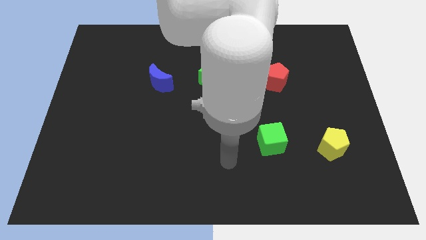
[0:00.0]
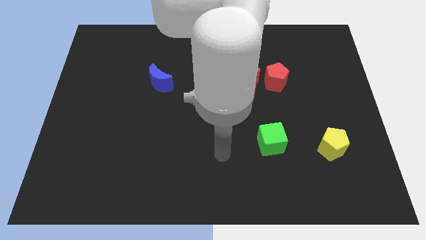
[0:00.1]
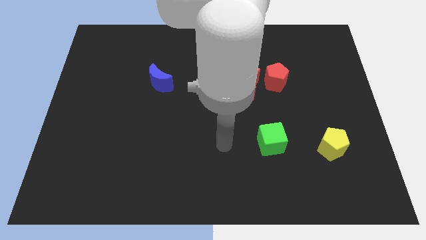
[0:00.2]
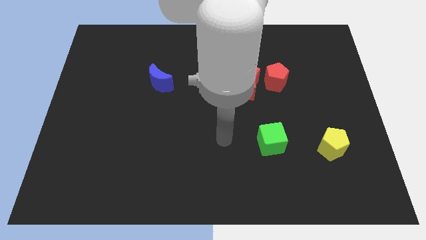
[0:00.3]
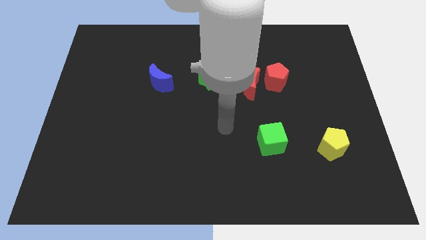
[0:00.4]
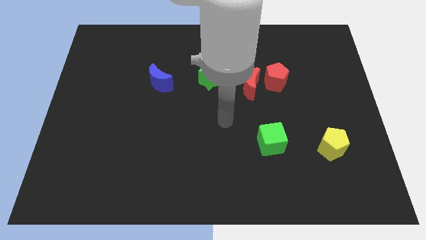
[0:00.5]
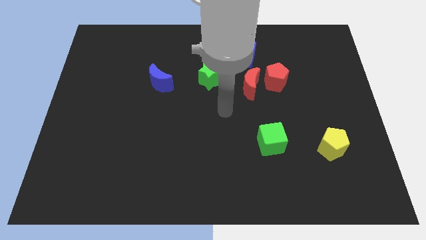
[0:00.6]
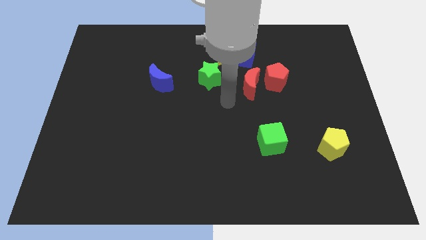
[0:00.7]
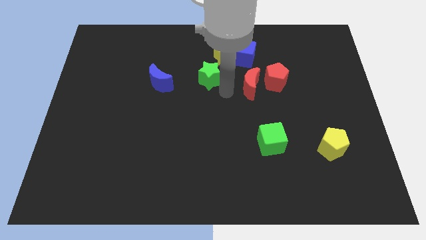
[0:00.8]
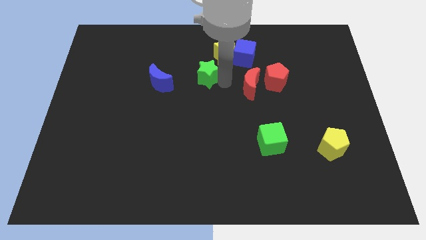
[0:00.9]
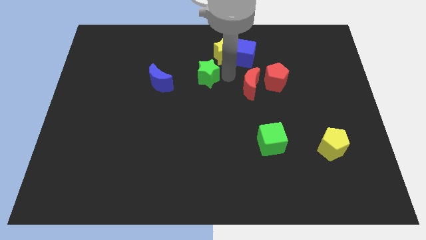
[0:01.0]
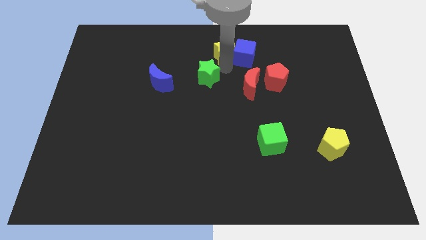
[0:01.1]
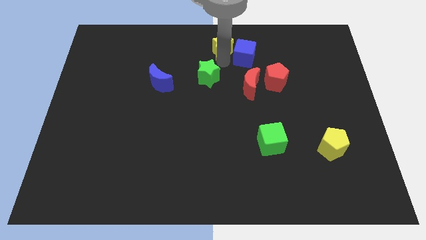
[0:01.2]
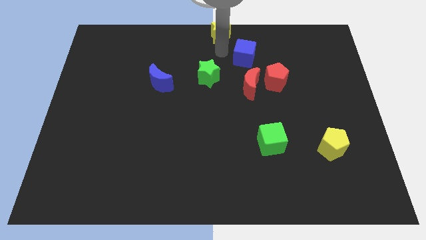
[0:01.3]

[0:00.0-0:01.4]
pull the blue cube apart from the yellow star

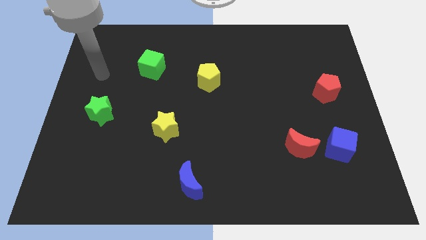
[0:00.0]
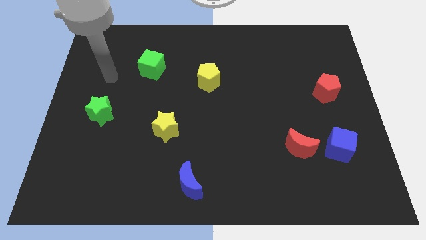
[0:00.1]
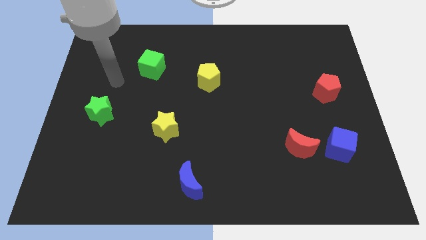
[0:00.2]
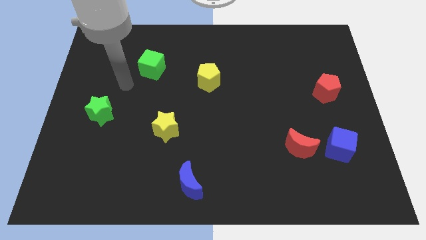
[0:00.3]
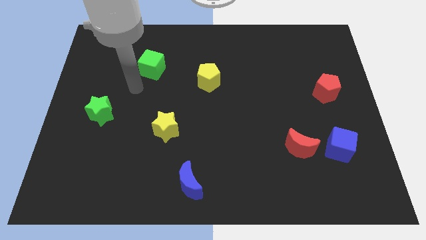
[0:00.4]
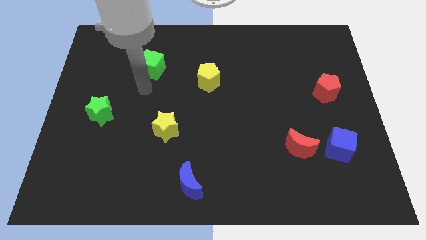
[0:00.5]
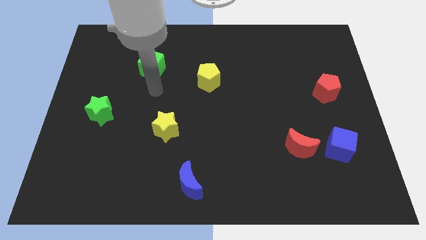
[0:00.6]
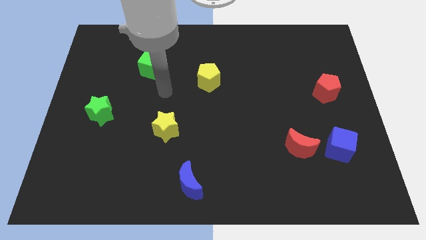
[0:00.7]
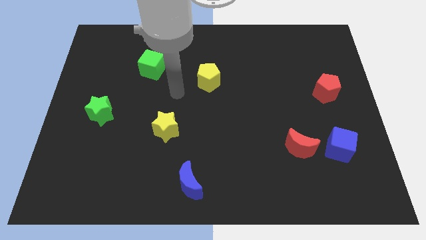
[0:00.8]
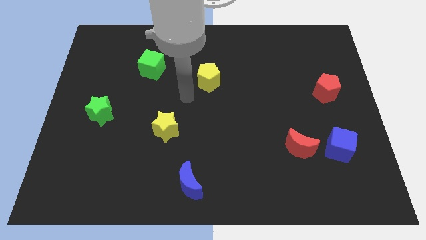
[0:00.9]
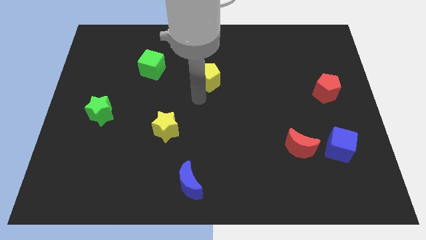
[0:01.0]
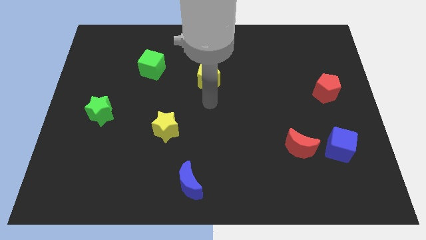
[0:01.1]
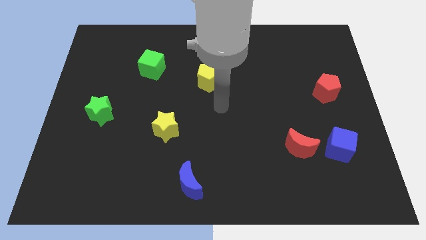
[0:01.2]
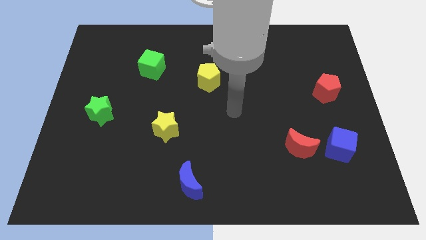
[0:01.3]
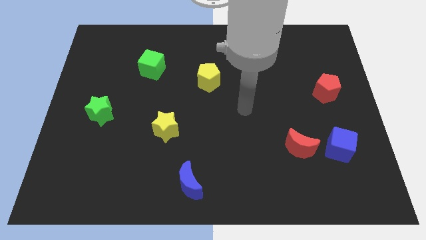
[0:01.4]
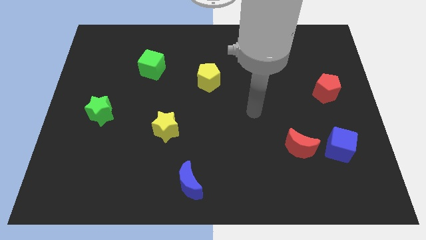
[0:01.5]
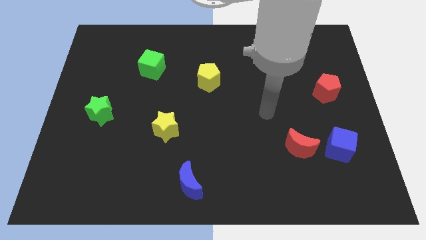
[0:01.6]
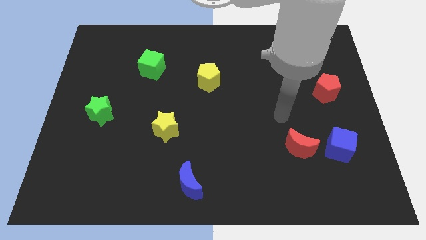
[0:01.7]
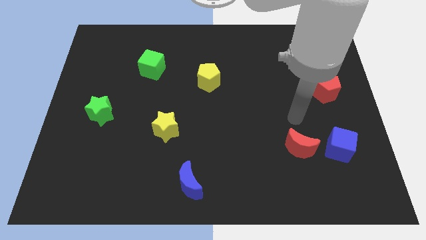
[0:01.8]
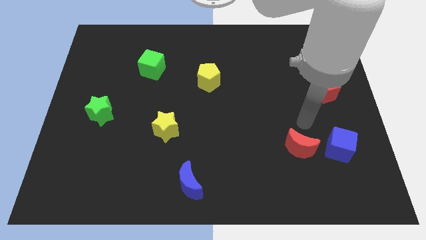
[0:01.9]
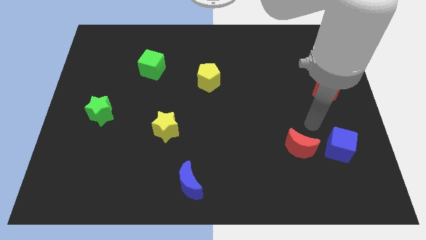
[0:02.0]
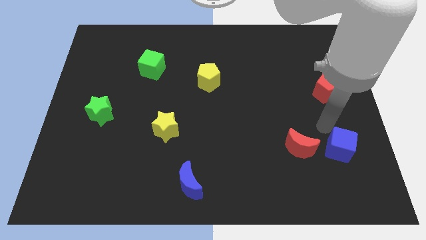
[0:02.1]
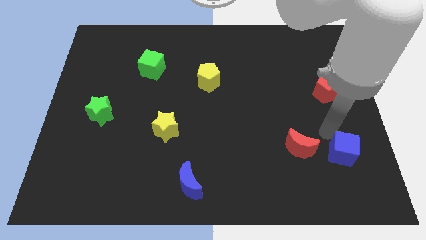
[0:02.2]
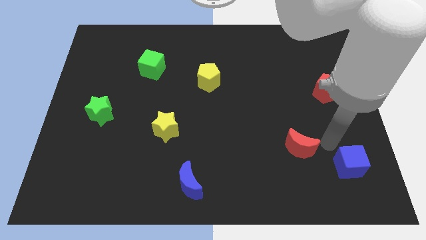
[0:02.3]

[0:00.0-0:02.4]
move the red moon away from the blue cube

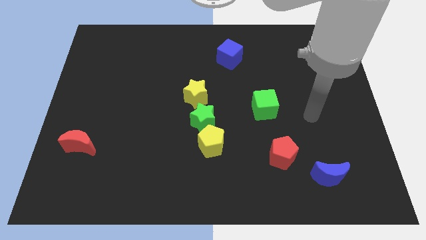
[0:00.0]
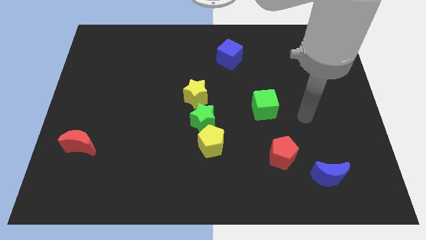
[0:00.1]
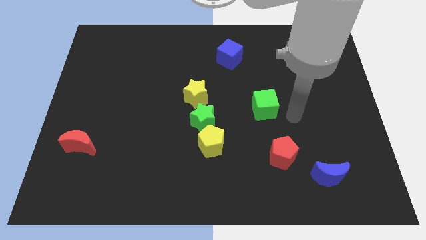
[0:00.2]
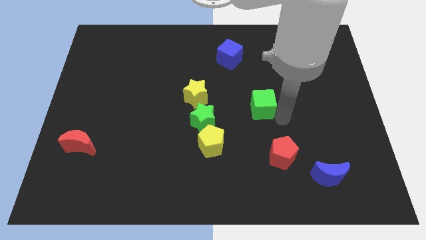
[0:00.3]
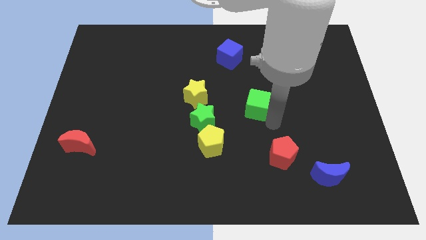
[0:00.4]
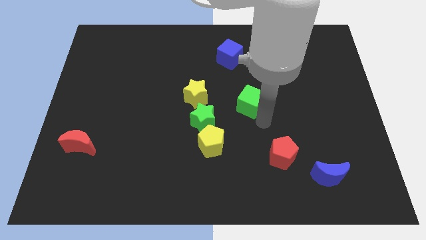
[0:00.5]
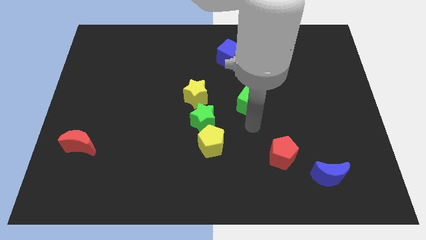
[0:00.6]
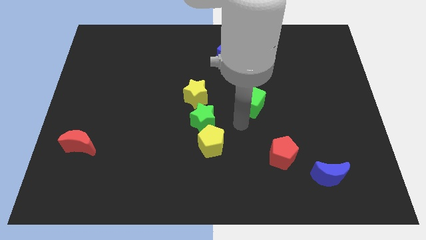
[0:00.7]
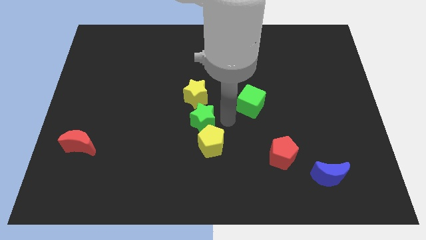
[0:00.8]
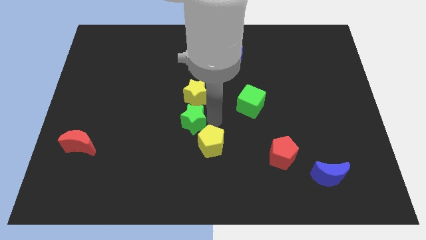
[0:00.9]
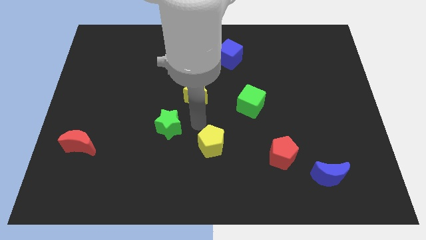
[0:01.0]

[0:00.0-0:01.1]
pull the yellow pentagon apart from the green star

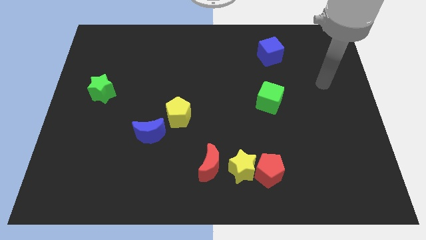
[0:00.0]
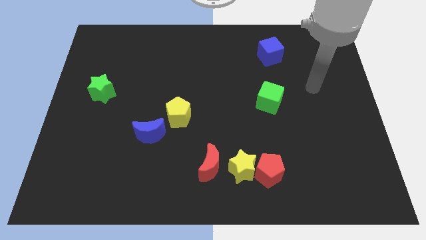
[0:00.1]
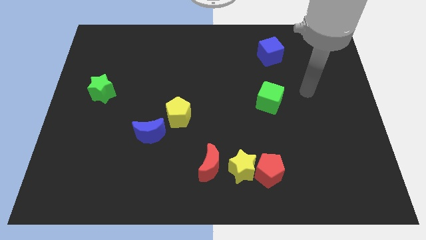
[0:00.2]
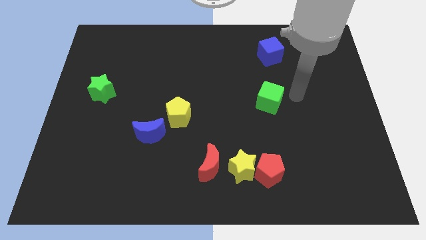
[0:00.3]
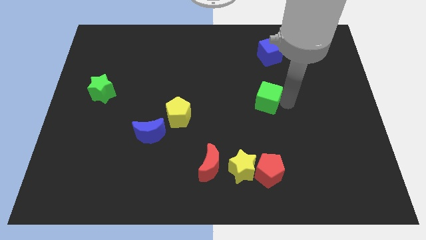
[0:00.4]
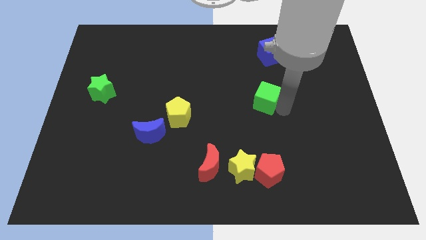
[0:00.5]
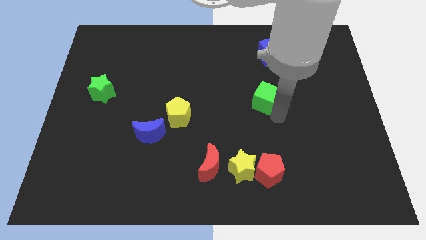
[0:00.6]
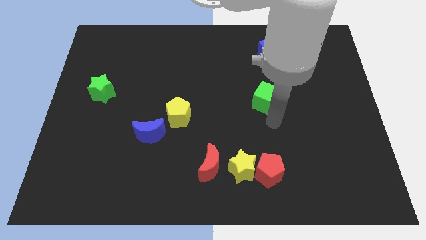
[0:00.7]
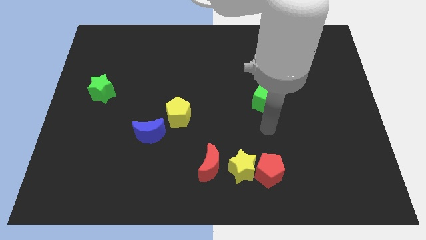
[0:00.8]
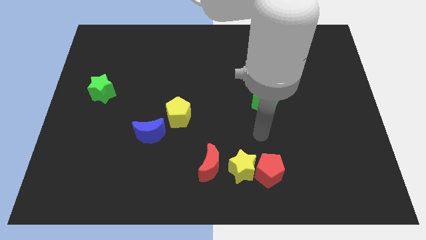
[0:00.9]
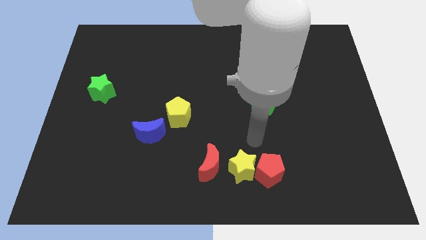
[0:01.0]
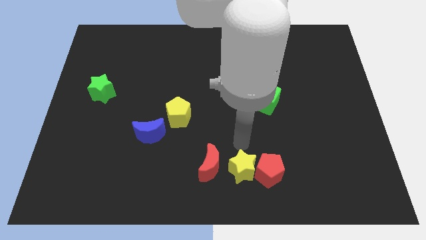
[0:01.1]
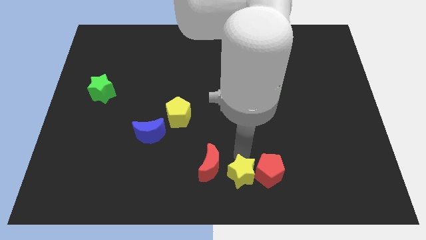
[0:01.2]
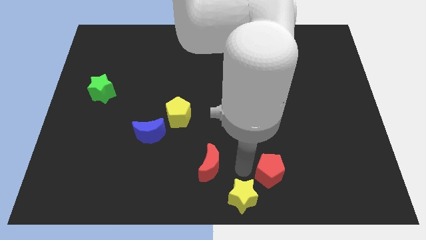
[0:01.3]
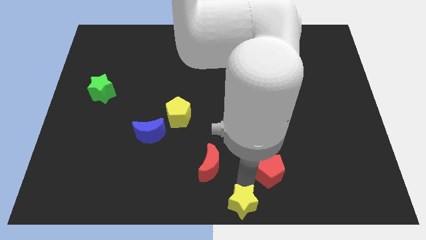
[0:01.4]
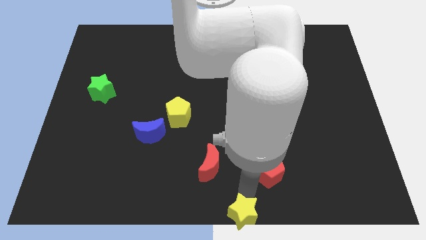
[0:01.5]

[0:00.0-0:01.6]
separate the red pentagon from the yellow star

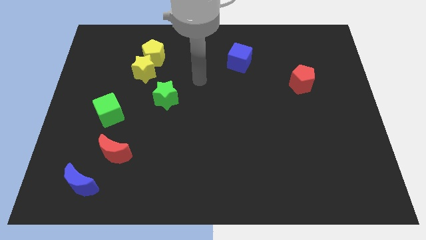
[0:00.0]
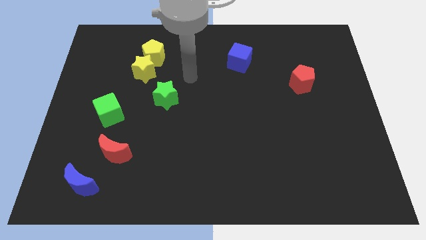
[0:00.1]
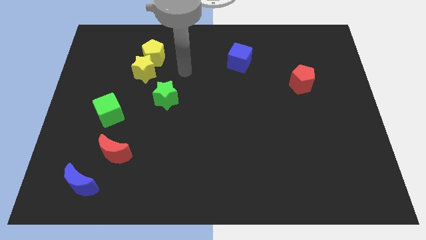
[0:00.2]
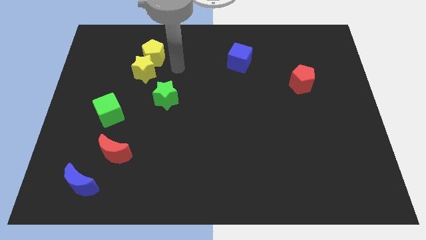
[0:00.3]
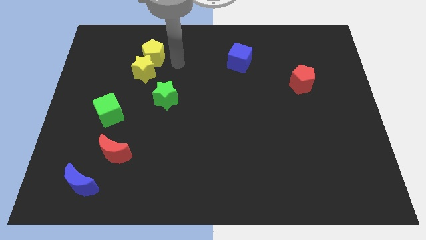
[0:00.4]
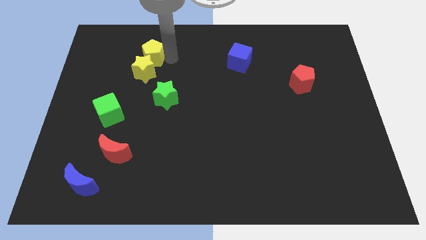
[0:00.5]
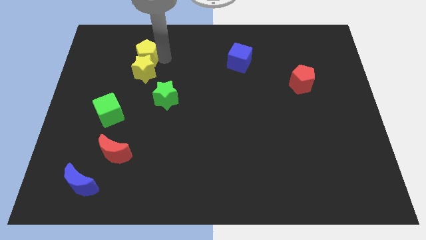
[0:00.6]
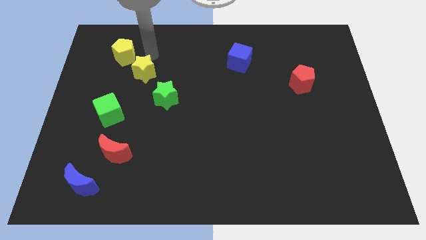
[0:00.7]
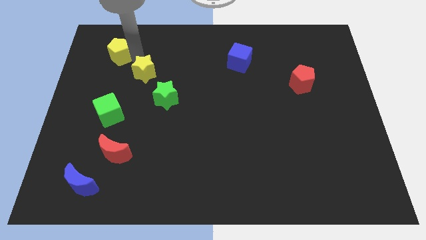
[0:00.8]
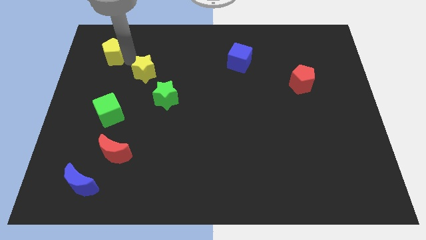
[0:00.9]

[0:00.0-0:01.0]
pull the yellow star apart from the yellow pentagon

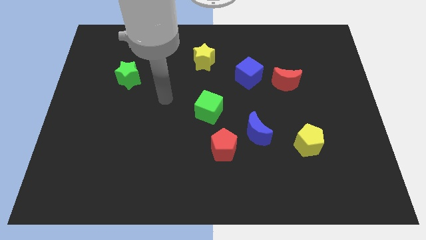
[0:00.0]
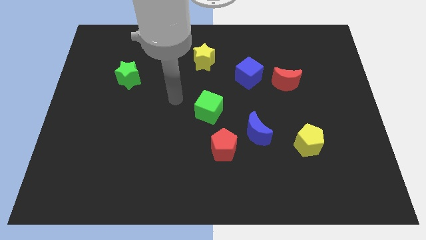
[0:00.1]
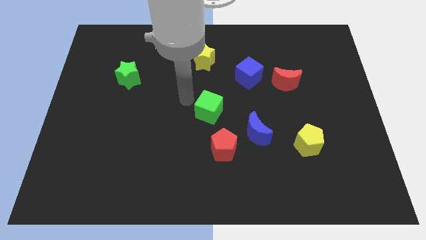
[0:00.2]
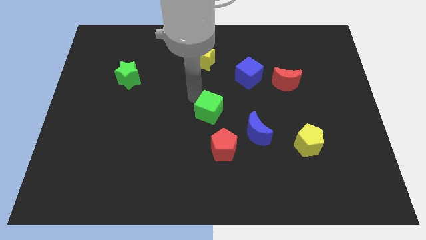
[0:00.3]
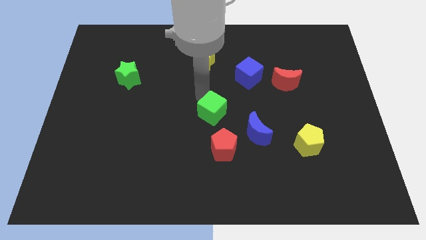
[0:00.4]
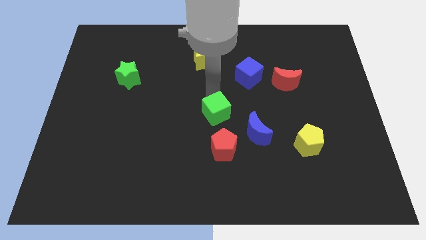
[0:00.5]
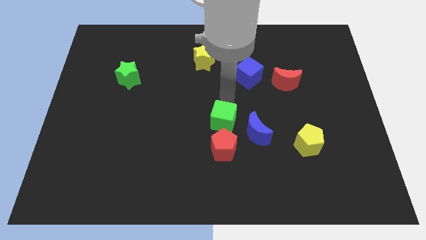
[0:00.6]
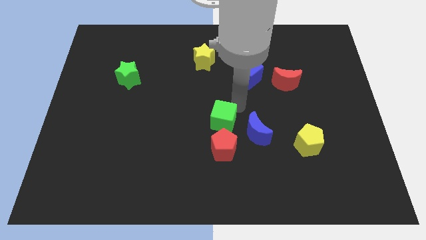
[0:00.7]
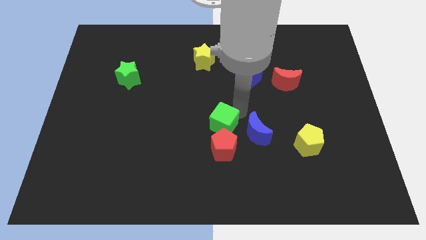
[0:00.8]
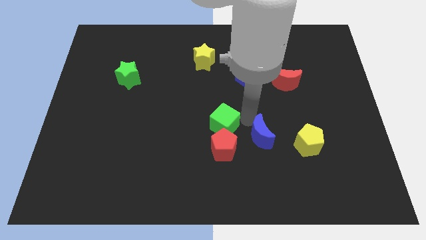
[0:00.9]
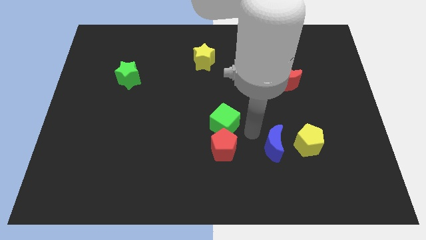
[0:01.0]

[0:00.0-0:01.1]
separate the red pentagon from the blue moon

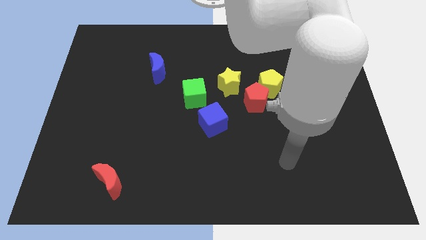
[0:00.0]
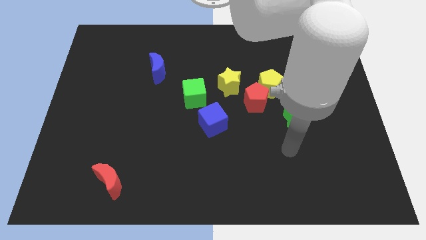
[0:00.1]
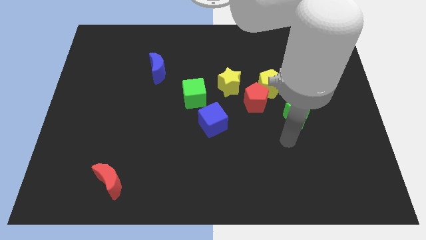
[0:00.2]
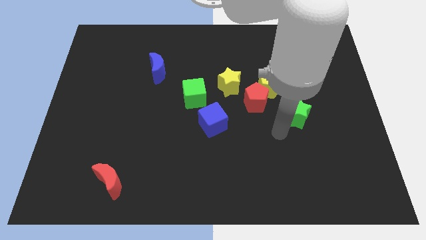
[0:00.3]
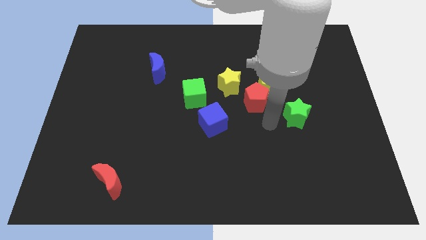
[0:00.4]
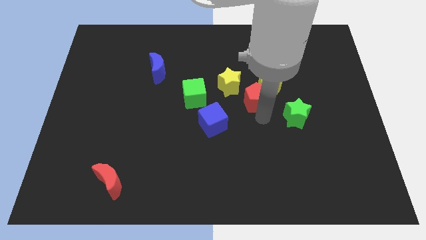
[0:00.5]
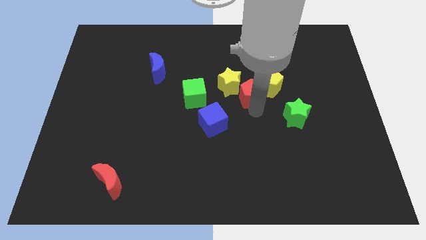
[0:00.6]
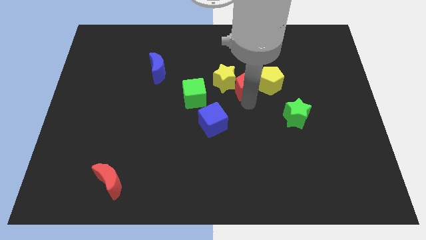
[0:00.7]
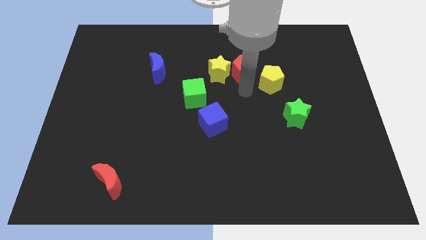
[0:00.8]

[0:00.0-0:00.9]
move the yellow pentagon away from the red pentagon and yellow star
